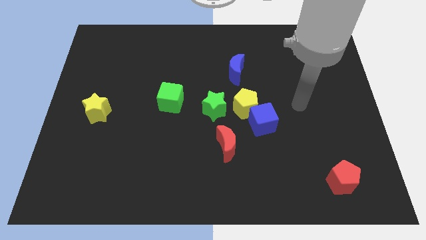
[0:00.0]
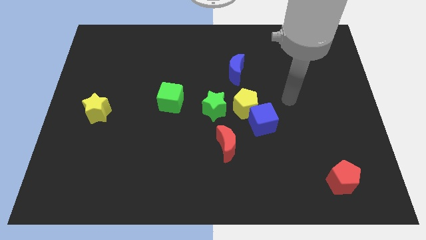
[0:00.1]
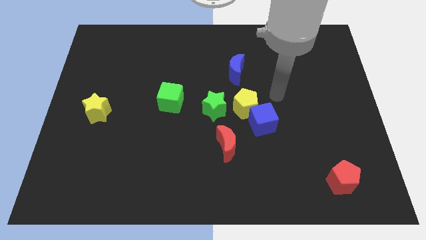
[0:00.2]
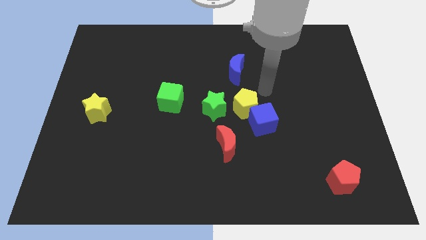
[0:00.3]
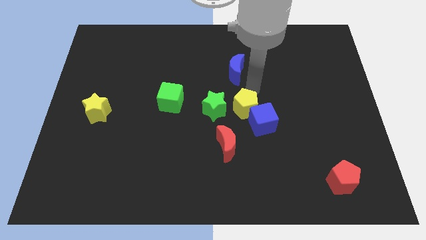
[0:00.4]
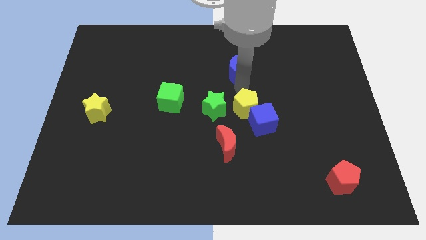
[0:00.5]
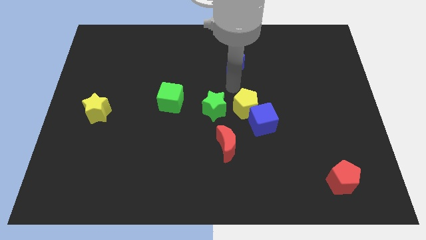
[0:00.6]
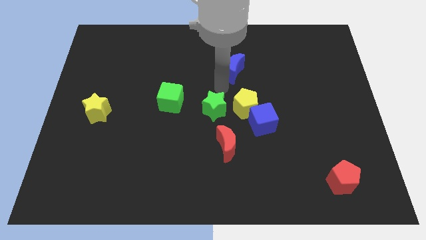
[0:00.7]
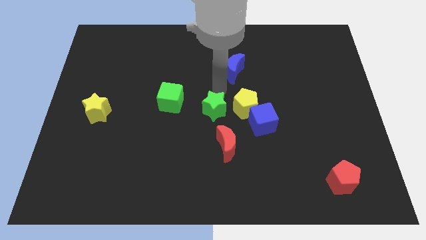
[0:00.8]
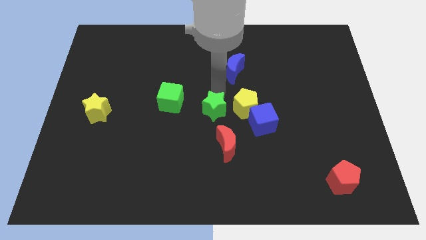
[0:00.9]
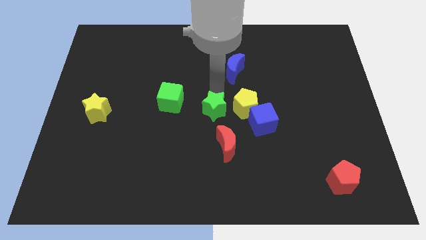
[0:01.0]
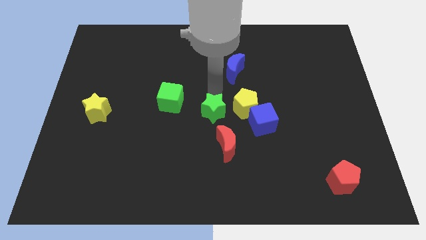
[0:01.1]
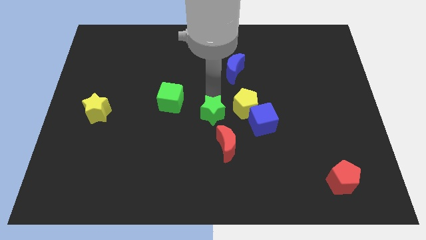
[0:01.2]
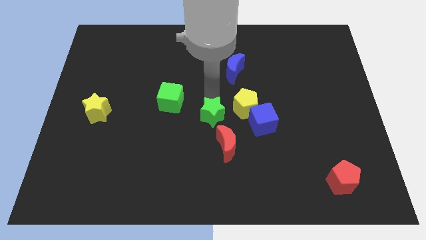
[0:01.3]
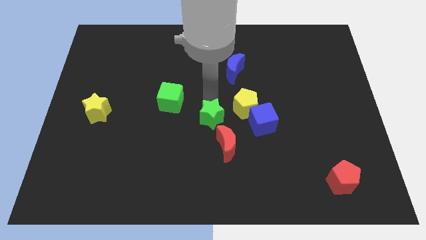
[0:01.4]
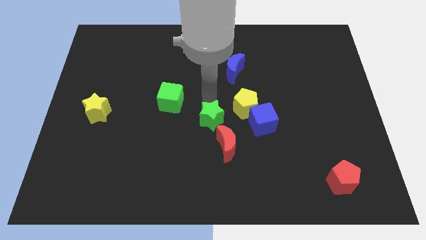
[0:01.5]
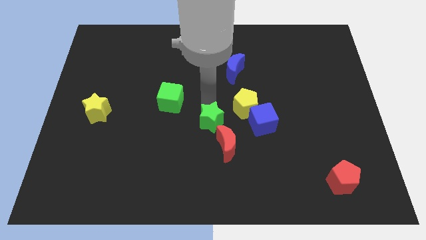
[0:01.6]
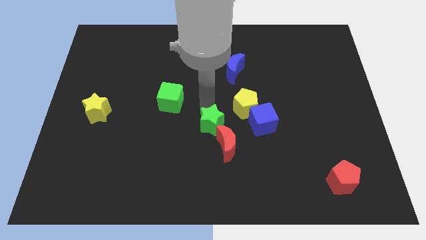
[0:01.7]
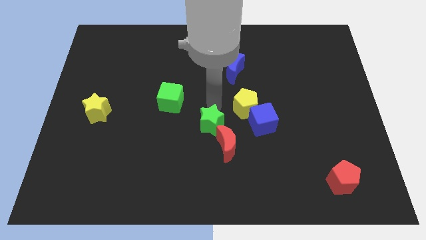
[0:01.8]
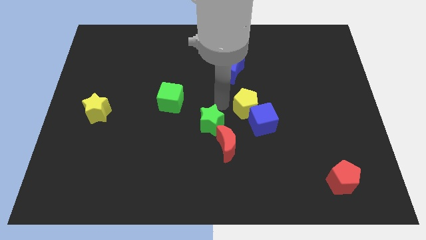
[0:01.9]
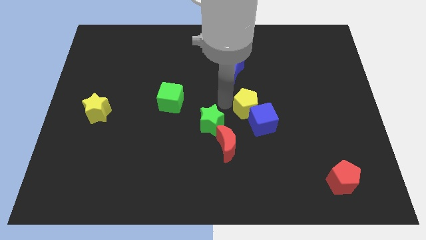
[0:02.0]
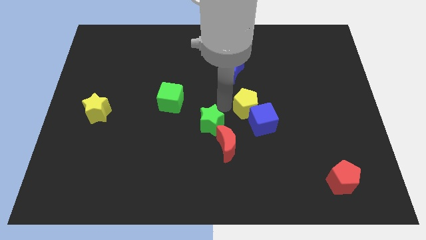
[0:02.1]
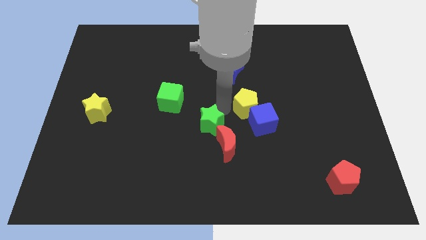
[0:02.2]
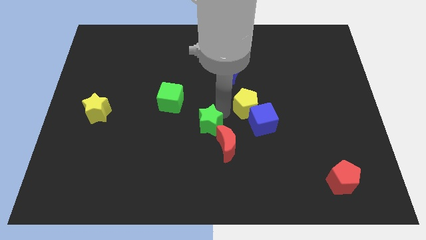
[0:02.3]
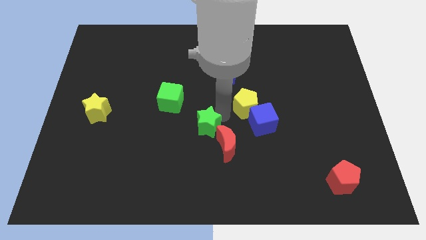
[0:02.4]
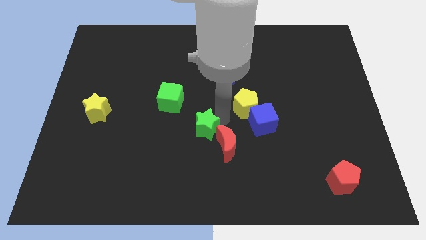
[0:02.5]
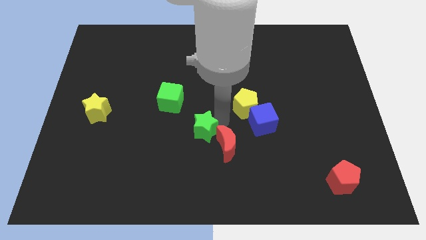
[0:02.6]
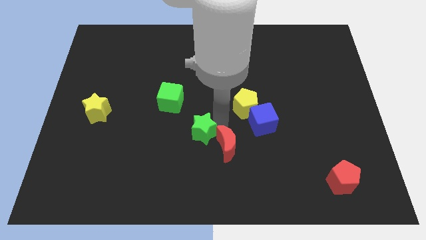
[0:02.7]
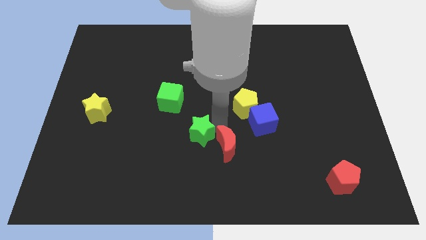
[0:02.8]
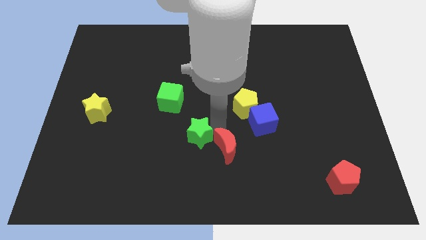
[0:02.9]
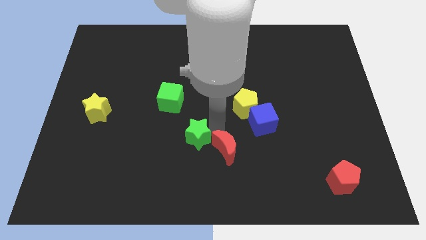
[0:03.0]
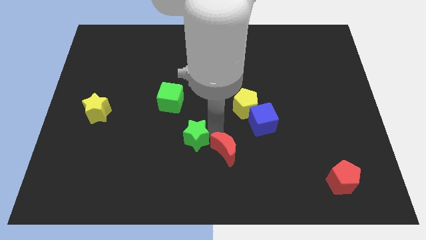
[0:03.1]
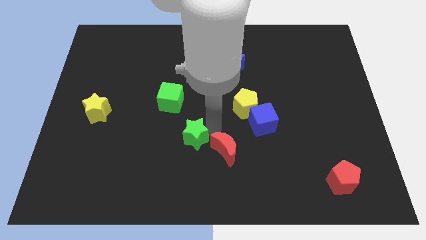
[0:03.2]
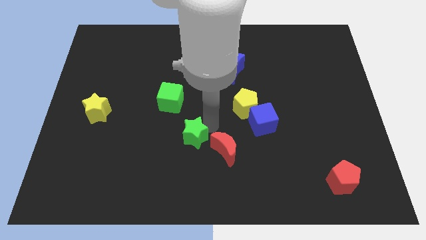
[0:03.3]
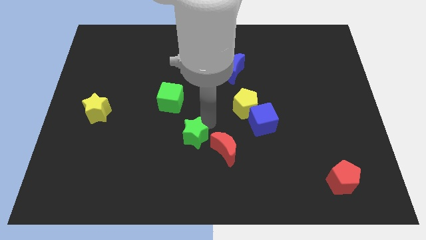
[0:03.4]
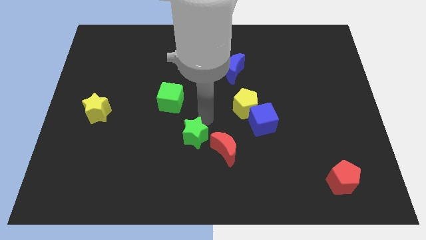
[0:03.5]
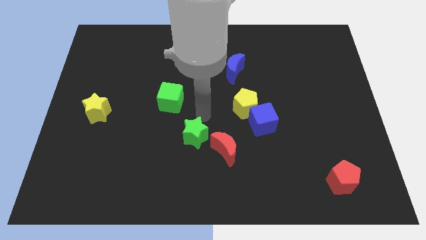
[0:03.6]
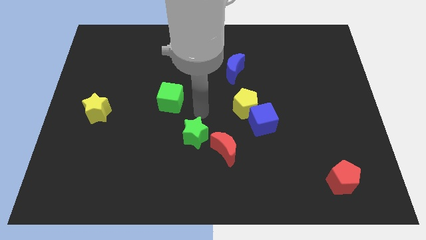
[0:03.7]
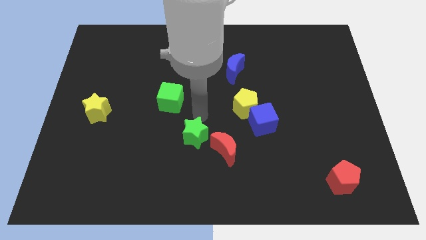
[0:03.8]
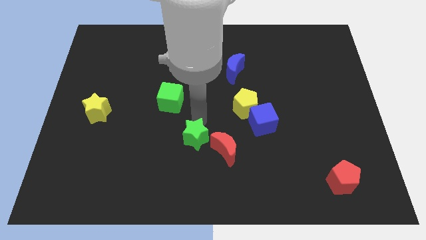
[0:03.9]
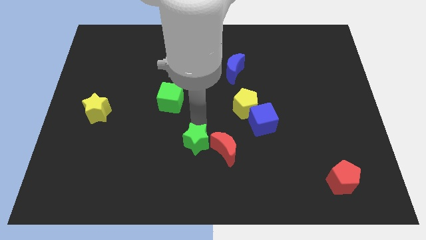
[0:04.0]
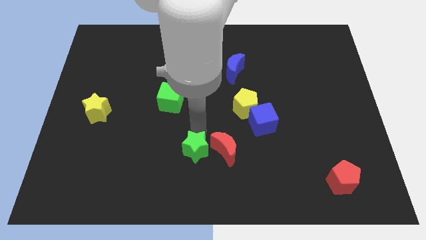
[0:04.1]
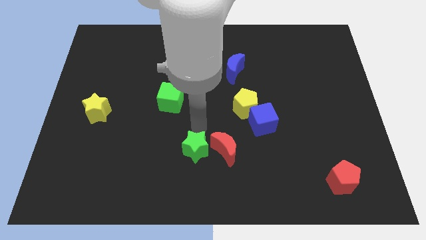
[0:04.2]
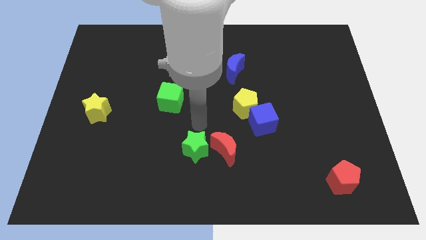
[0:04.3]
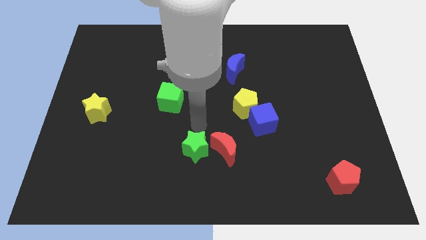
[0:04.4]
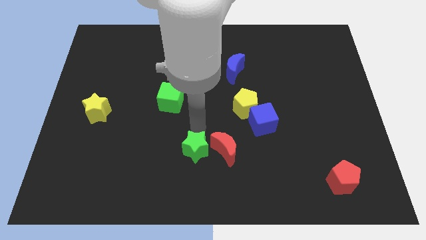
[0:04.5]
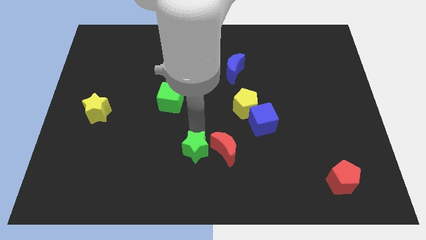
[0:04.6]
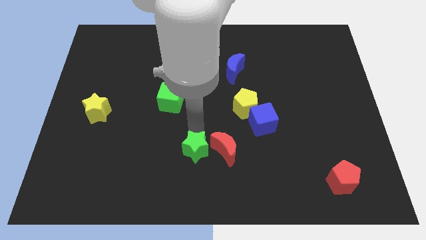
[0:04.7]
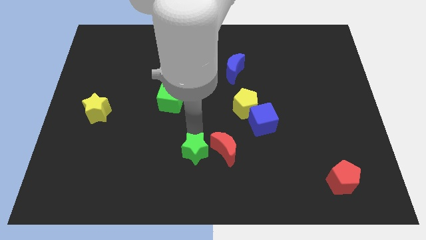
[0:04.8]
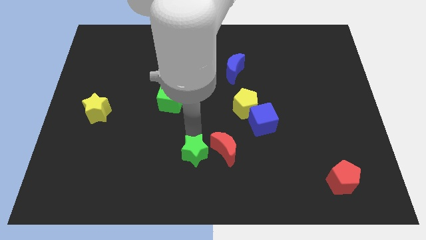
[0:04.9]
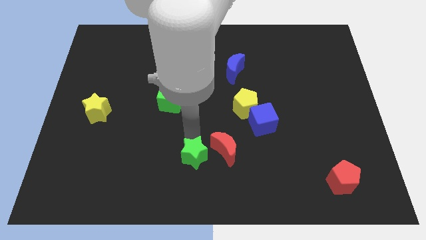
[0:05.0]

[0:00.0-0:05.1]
put the green star to the bottom side

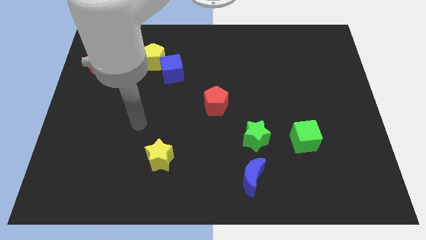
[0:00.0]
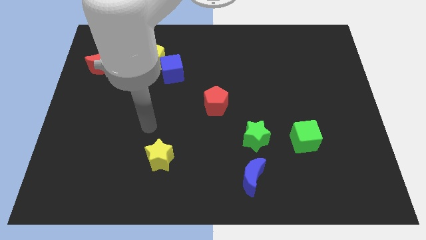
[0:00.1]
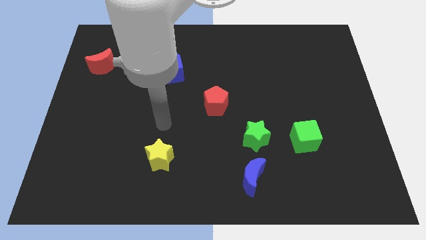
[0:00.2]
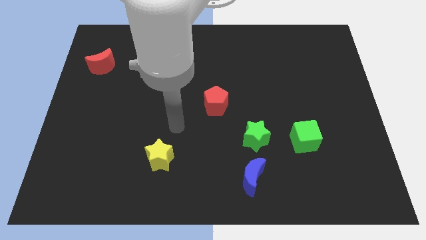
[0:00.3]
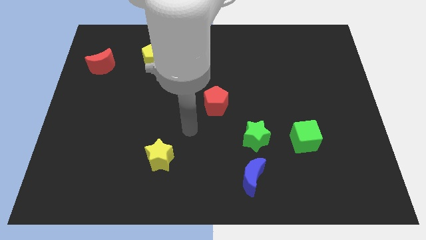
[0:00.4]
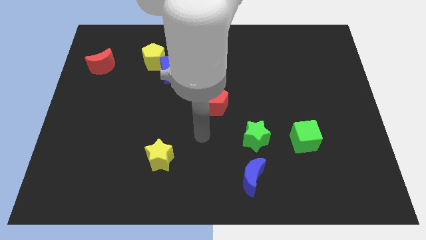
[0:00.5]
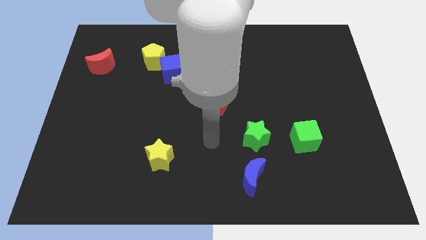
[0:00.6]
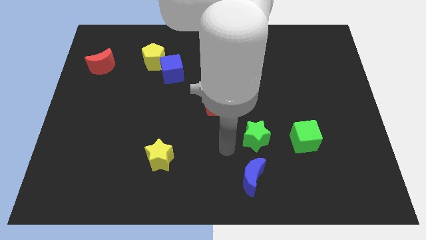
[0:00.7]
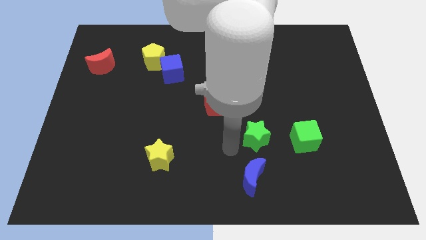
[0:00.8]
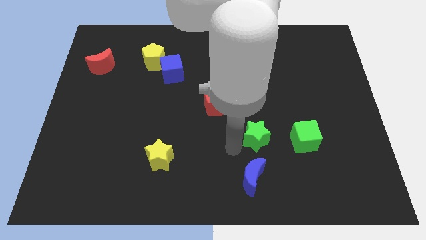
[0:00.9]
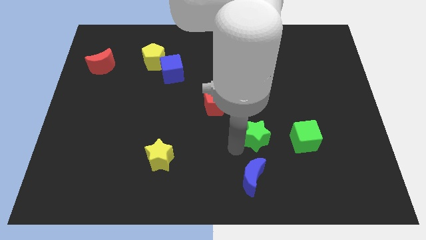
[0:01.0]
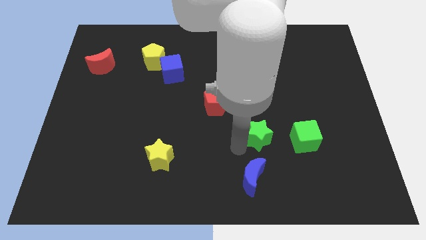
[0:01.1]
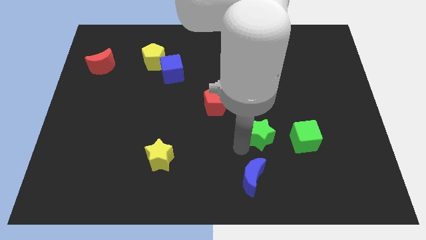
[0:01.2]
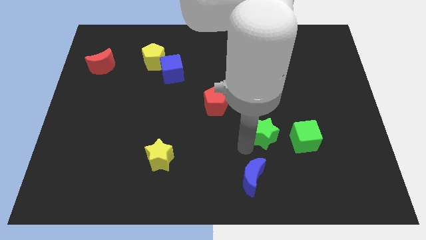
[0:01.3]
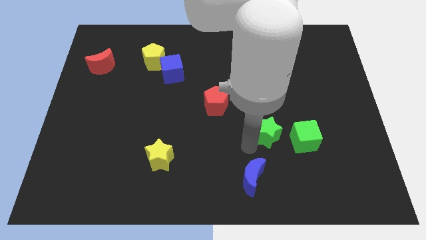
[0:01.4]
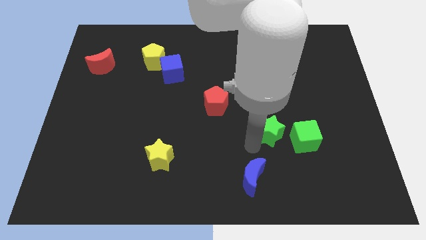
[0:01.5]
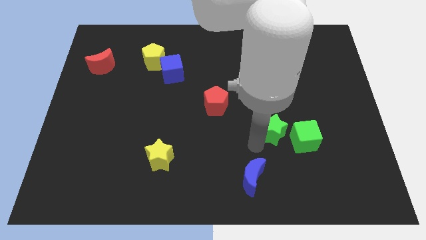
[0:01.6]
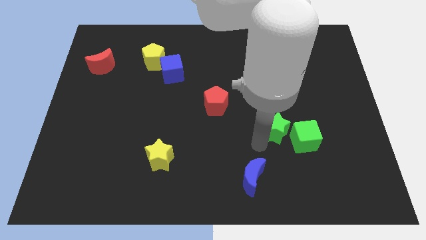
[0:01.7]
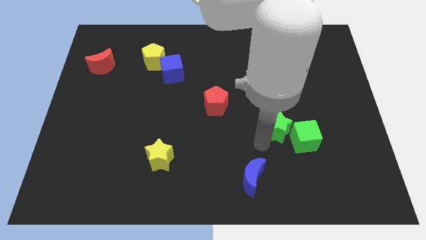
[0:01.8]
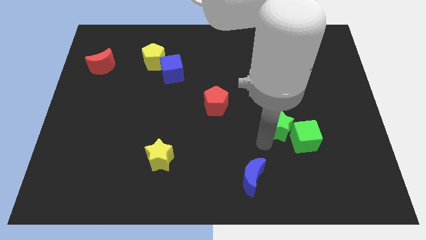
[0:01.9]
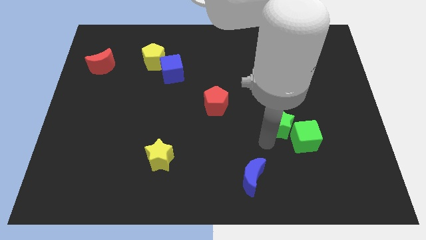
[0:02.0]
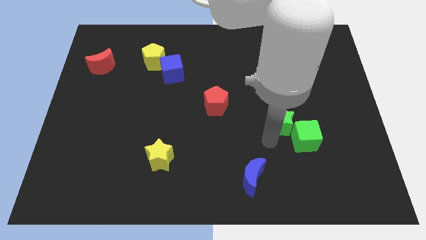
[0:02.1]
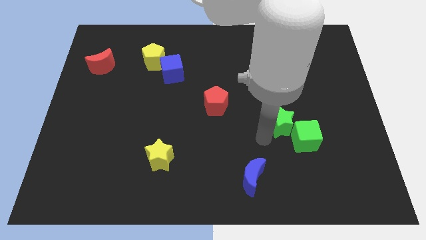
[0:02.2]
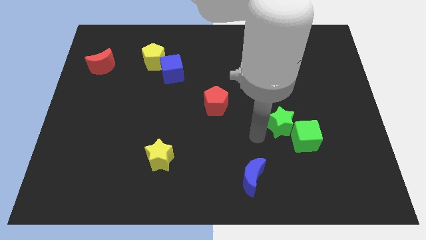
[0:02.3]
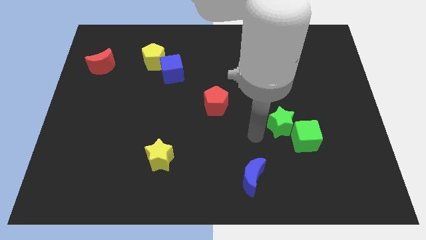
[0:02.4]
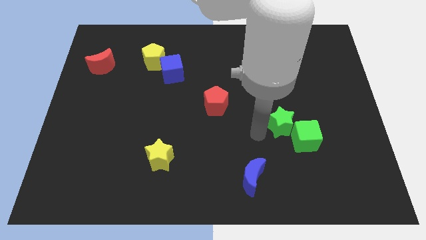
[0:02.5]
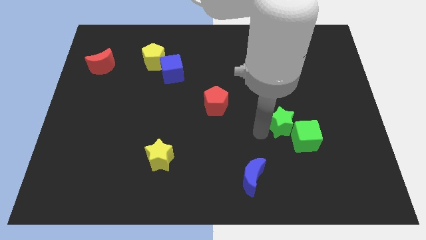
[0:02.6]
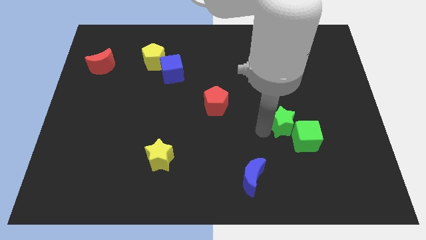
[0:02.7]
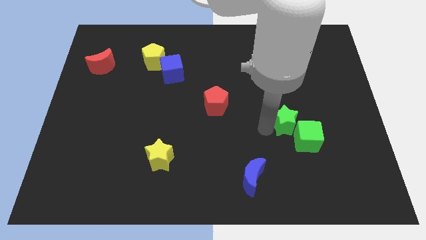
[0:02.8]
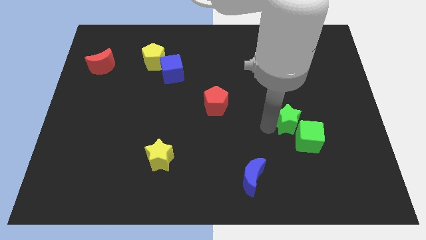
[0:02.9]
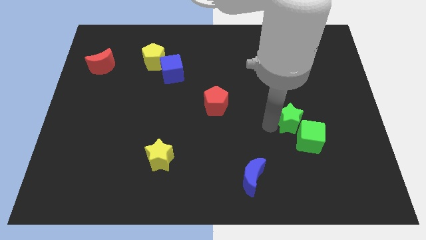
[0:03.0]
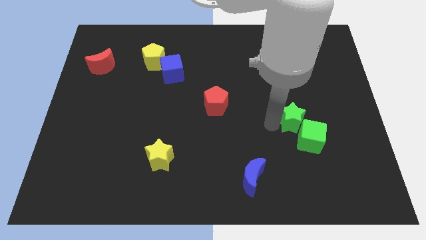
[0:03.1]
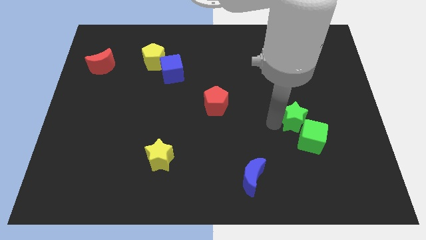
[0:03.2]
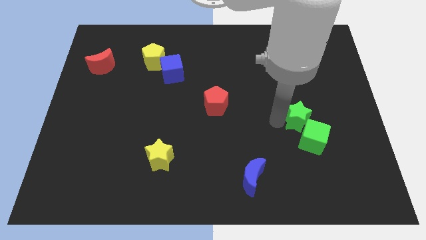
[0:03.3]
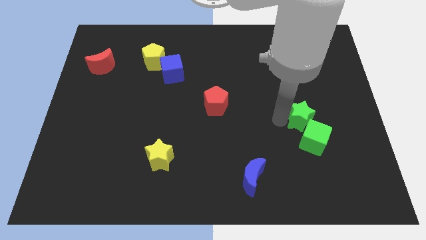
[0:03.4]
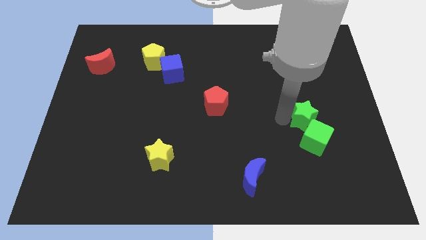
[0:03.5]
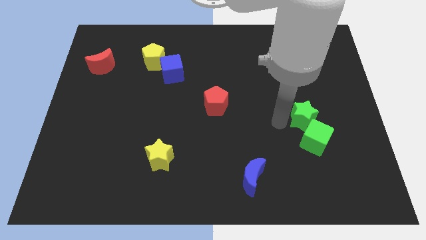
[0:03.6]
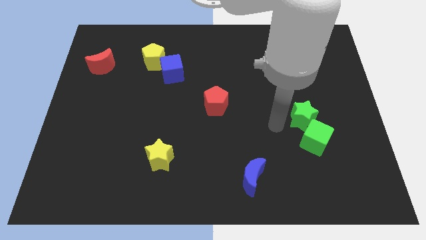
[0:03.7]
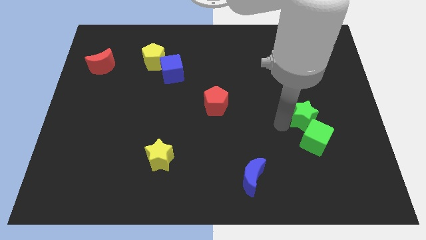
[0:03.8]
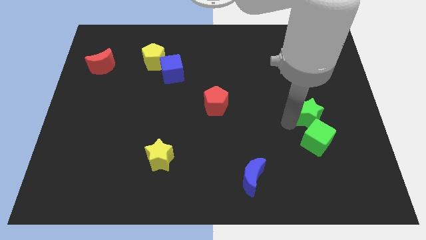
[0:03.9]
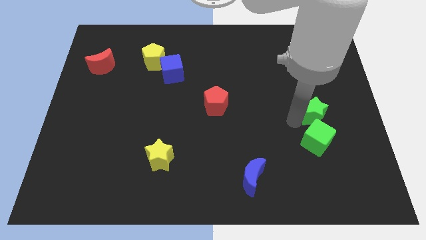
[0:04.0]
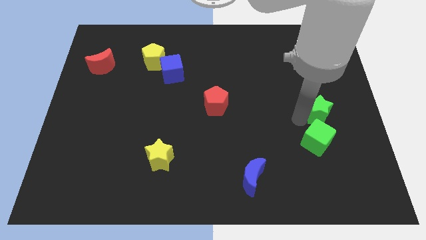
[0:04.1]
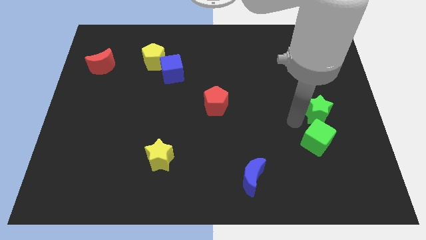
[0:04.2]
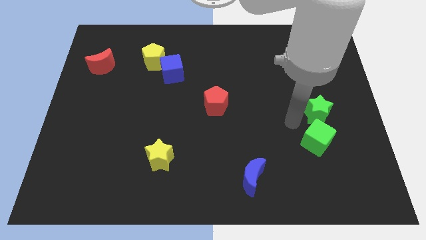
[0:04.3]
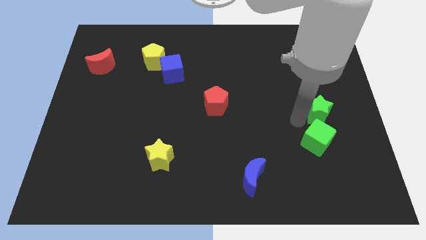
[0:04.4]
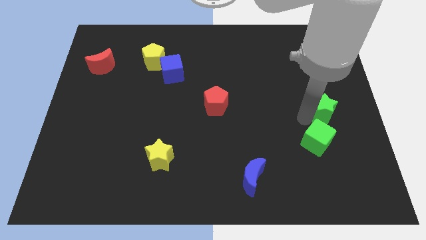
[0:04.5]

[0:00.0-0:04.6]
put the green star to the center right
